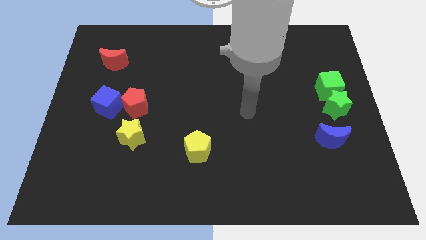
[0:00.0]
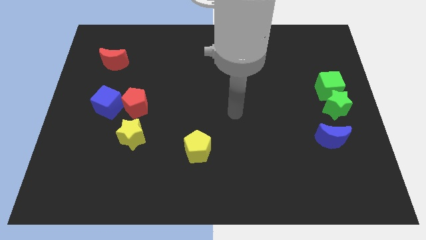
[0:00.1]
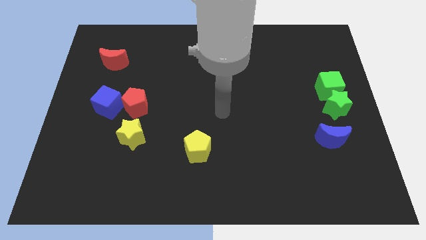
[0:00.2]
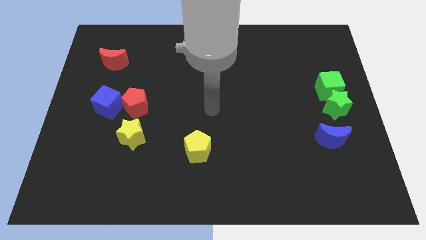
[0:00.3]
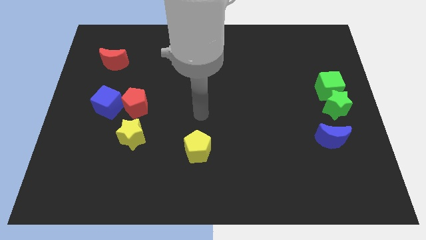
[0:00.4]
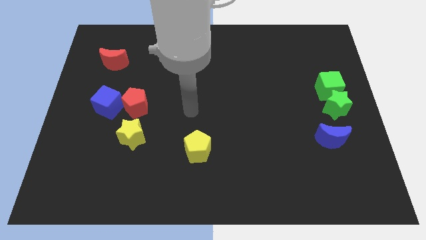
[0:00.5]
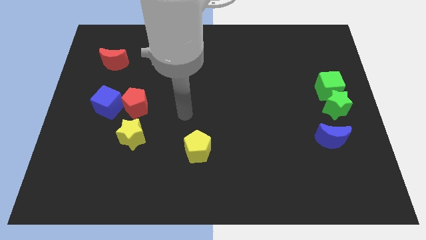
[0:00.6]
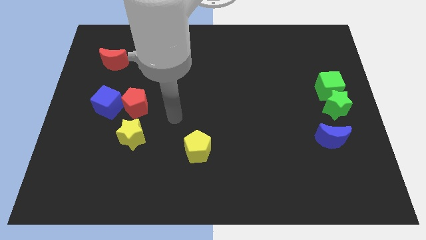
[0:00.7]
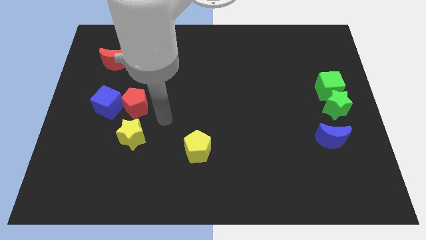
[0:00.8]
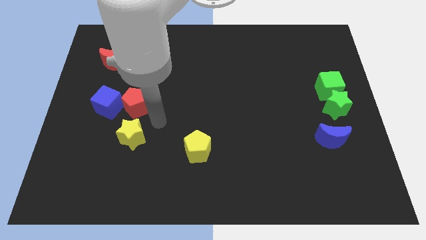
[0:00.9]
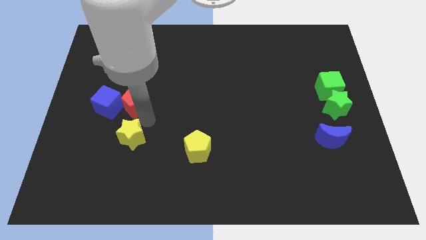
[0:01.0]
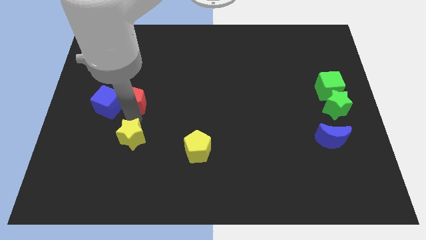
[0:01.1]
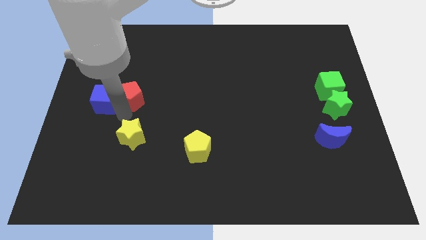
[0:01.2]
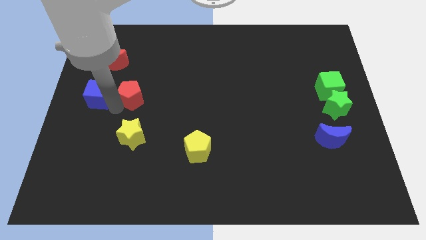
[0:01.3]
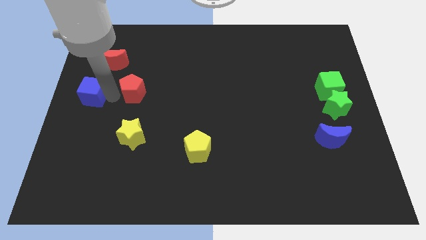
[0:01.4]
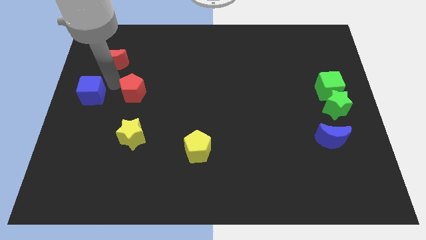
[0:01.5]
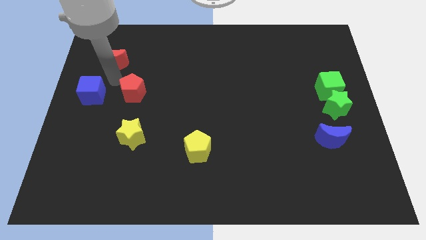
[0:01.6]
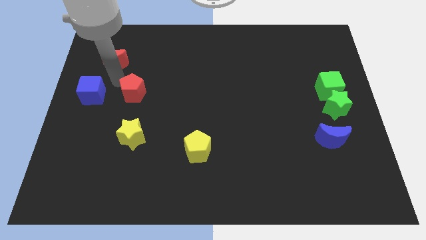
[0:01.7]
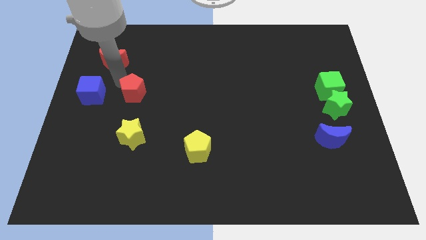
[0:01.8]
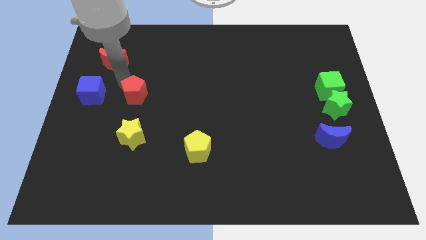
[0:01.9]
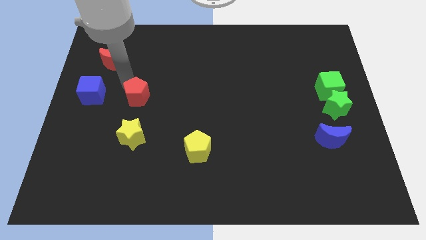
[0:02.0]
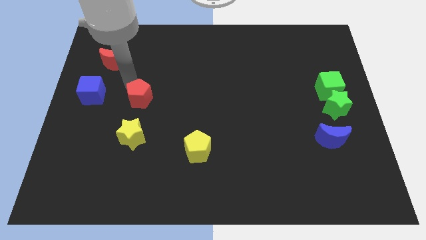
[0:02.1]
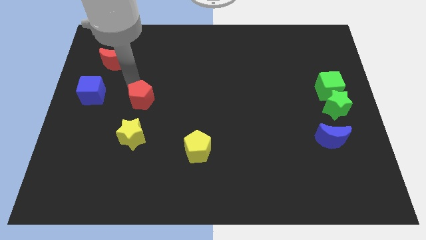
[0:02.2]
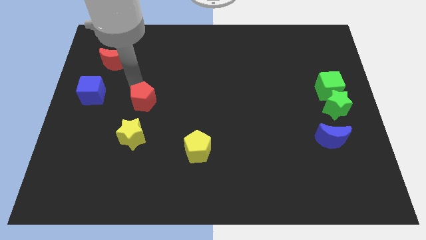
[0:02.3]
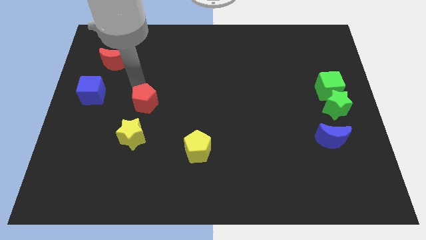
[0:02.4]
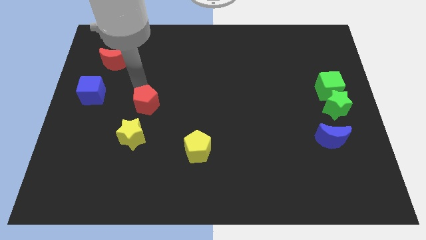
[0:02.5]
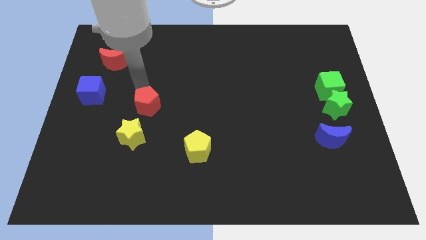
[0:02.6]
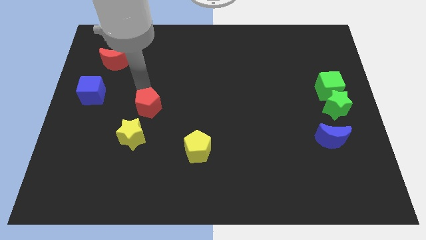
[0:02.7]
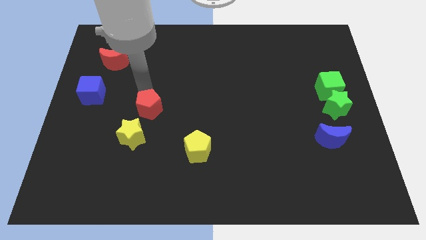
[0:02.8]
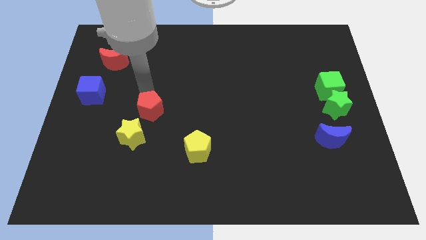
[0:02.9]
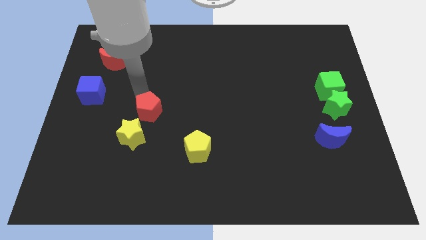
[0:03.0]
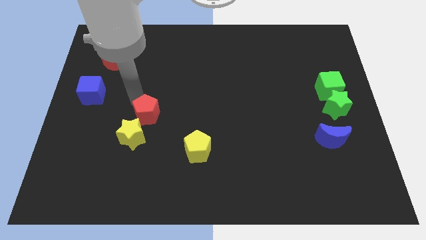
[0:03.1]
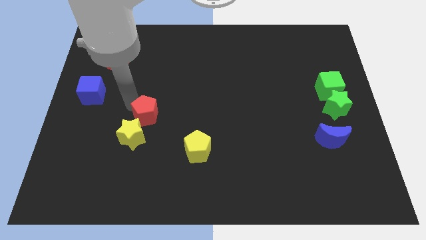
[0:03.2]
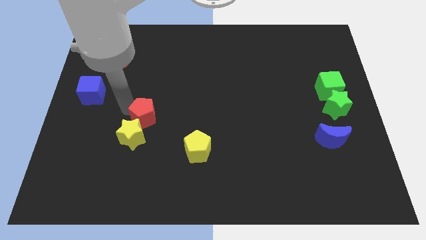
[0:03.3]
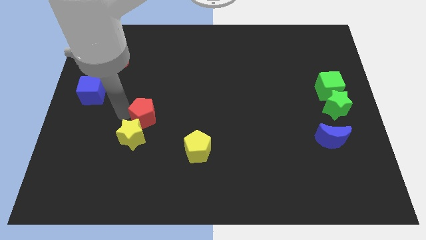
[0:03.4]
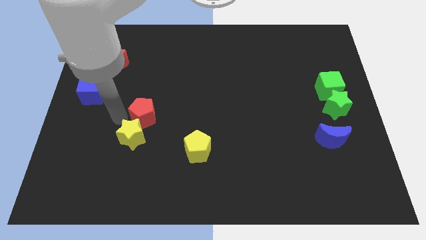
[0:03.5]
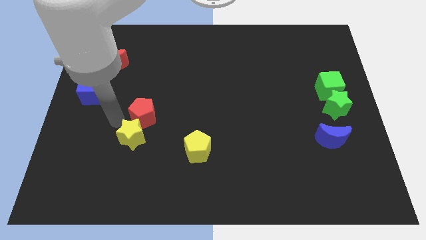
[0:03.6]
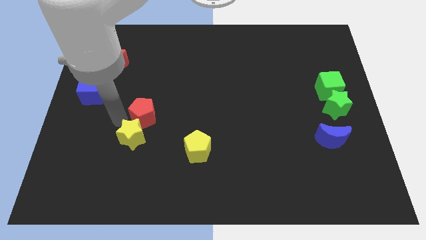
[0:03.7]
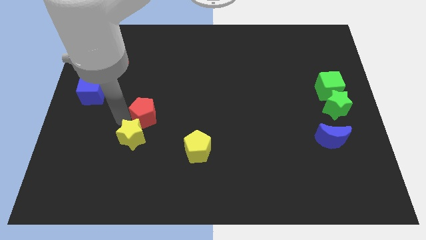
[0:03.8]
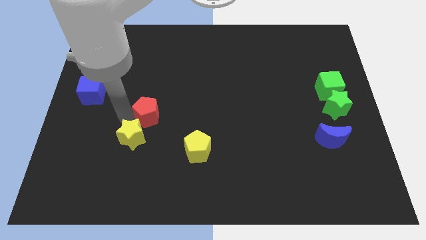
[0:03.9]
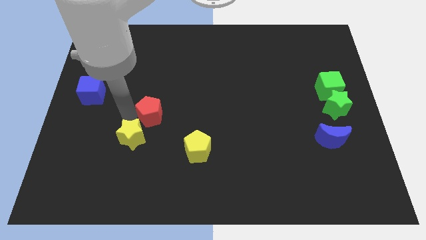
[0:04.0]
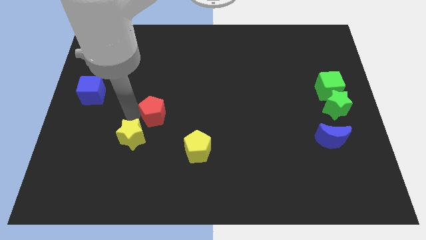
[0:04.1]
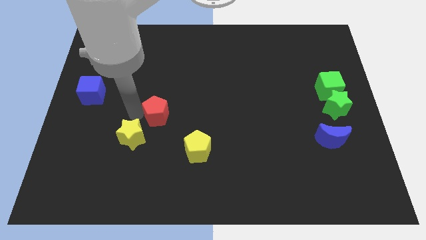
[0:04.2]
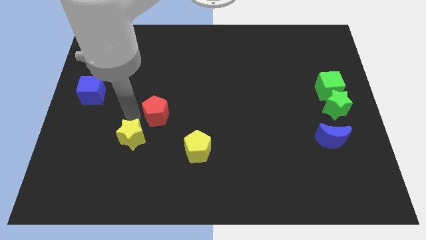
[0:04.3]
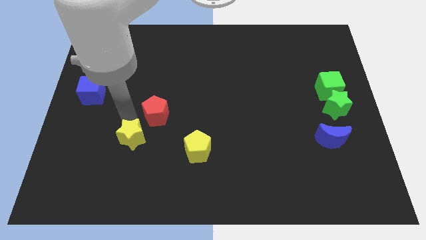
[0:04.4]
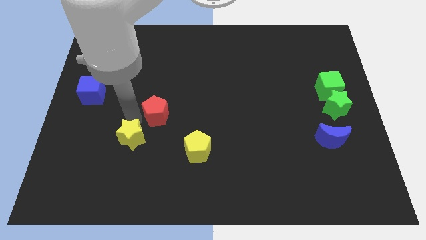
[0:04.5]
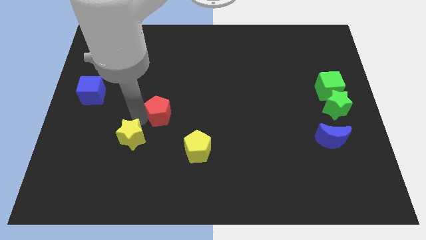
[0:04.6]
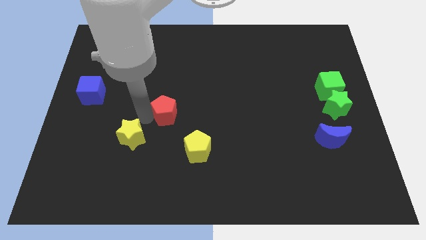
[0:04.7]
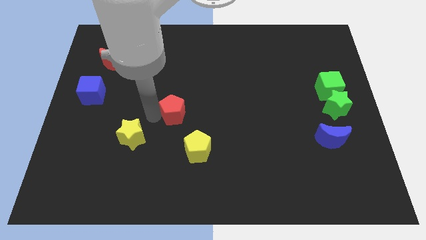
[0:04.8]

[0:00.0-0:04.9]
move the red pentagon somewhat right

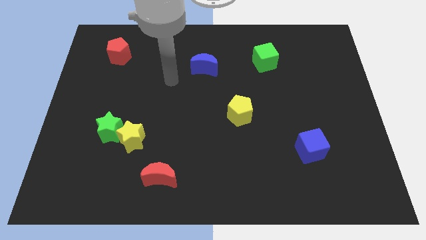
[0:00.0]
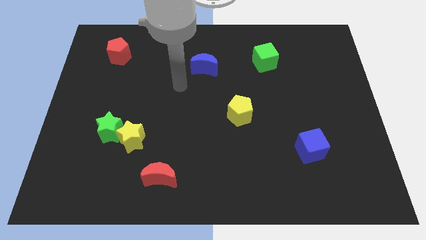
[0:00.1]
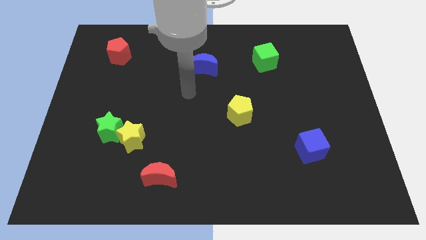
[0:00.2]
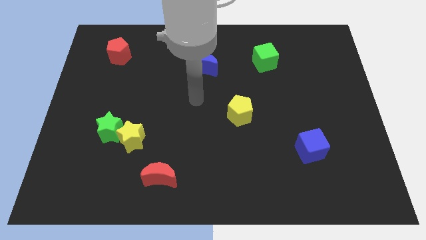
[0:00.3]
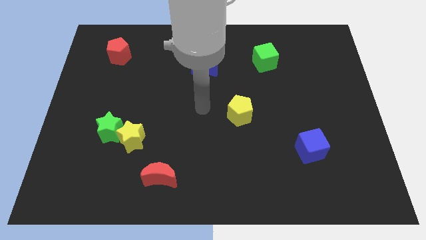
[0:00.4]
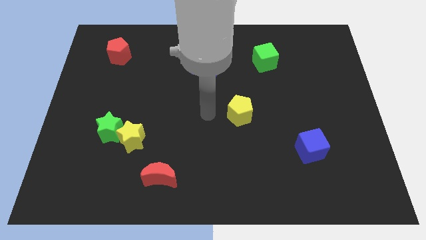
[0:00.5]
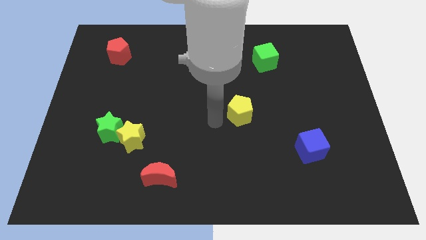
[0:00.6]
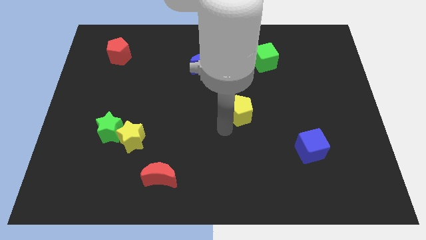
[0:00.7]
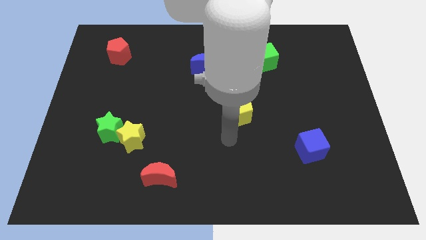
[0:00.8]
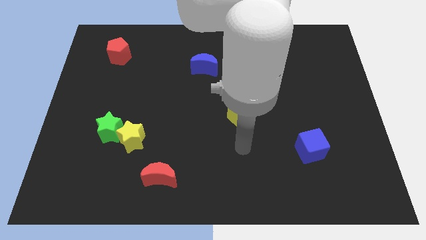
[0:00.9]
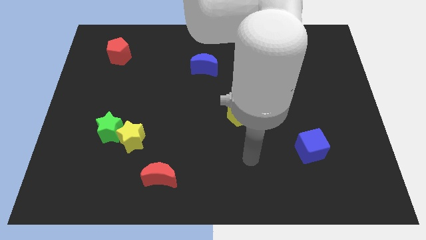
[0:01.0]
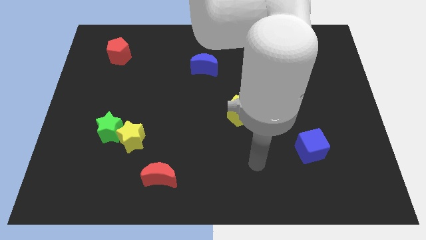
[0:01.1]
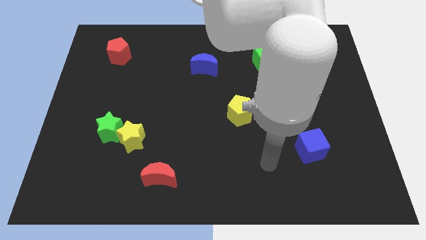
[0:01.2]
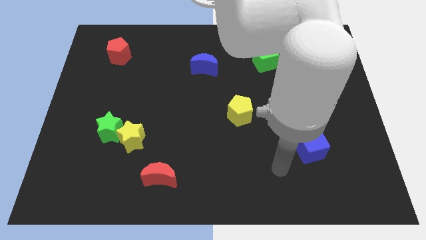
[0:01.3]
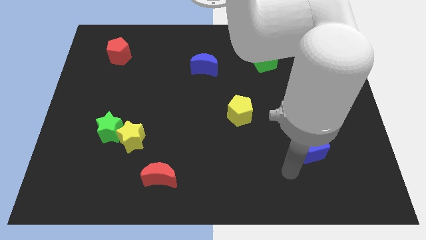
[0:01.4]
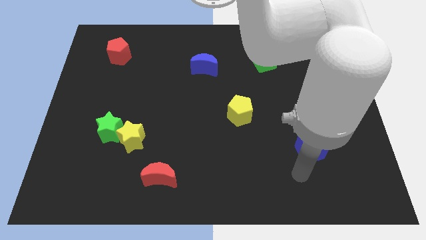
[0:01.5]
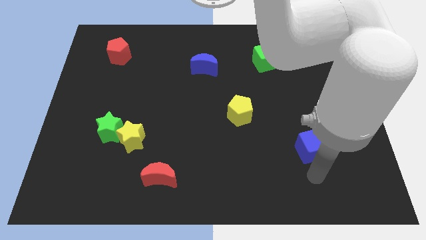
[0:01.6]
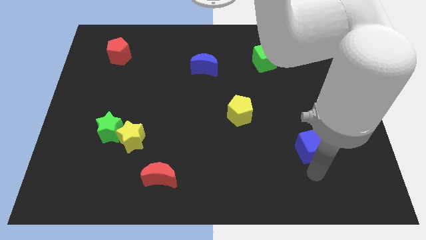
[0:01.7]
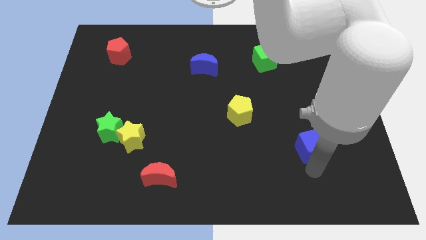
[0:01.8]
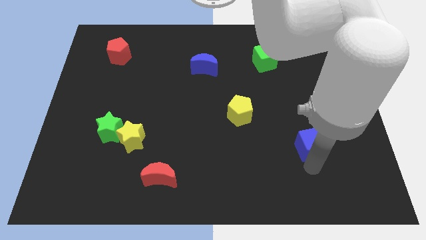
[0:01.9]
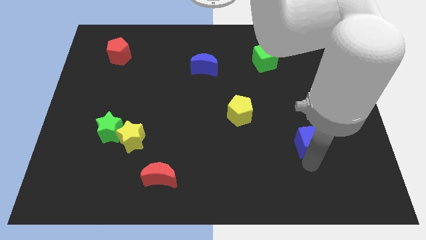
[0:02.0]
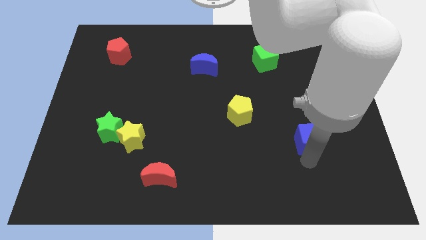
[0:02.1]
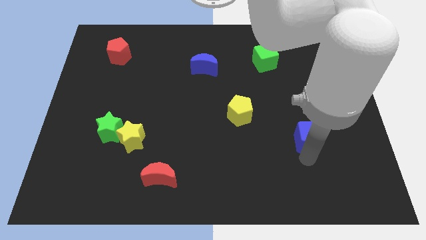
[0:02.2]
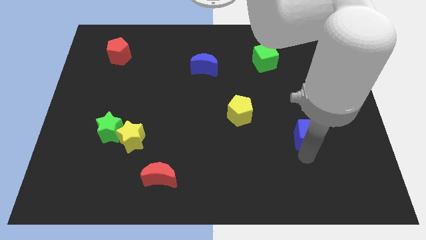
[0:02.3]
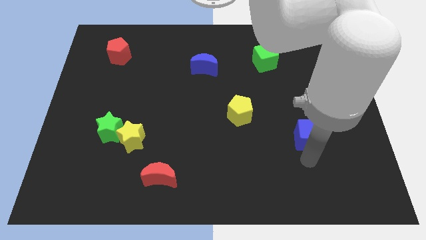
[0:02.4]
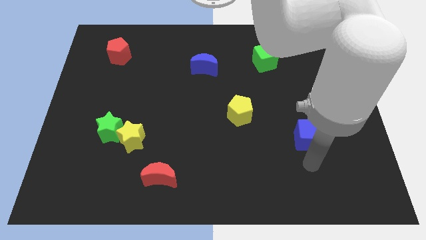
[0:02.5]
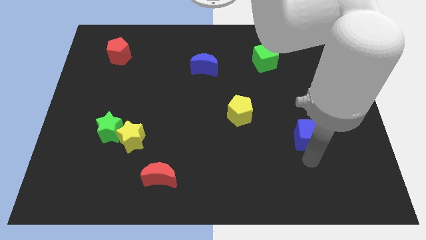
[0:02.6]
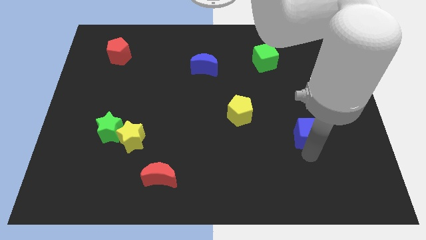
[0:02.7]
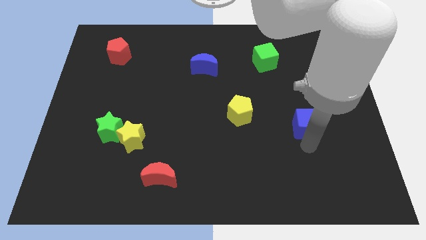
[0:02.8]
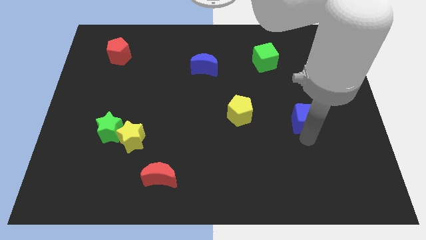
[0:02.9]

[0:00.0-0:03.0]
move the blue cube a little up
